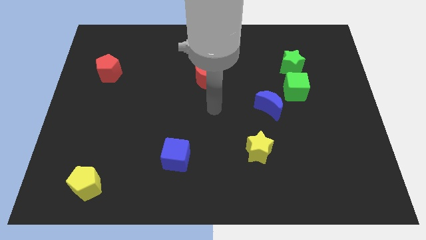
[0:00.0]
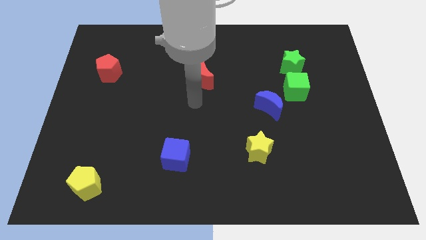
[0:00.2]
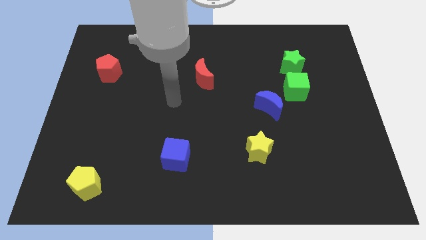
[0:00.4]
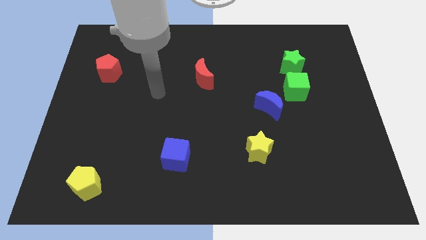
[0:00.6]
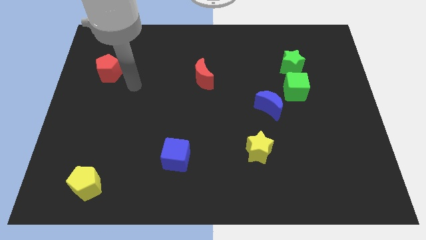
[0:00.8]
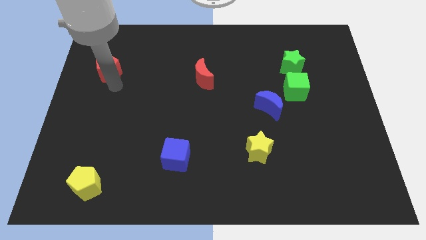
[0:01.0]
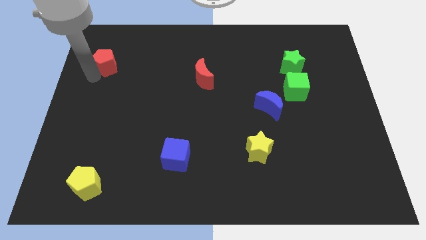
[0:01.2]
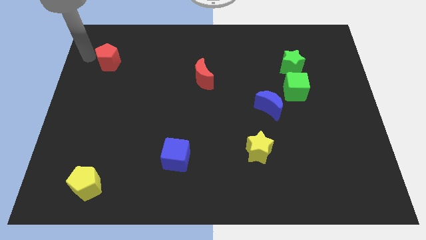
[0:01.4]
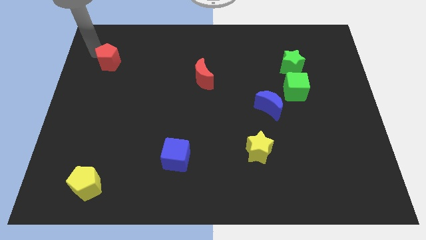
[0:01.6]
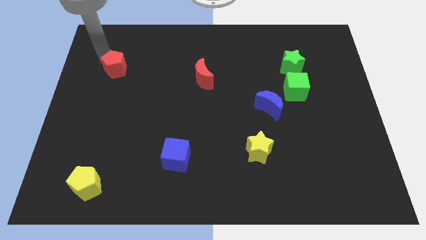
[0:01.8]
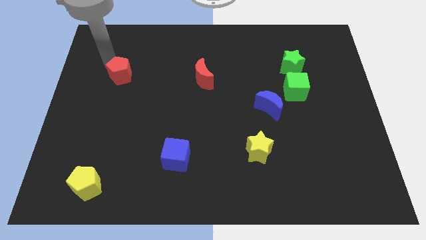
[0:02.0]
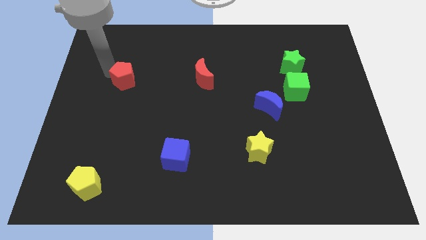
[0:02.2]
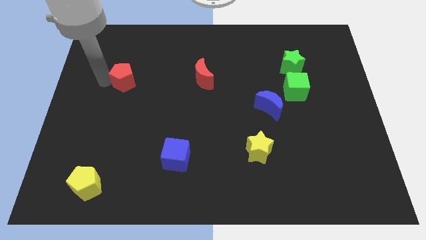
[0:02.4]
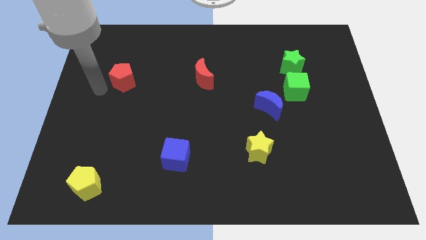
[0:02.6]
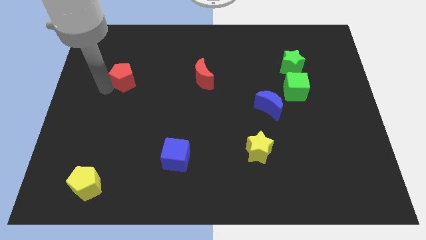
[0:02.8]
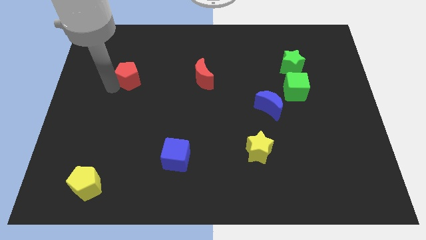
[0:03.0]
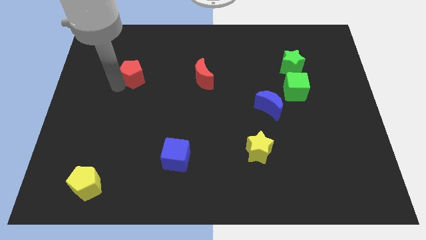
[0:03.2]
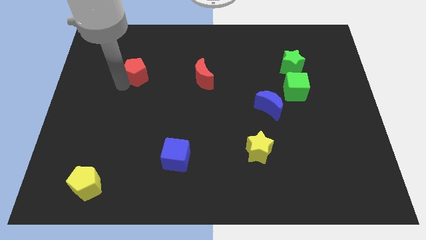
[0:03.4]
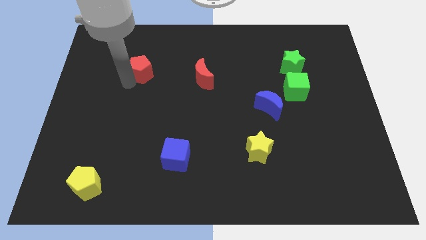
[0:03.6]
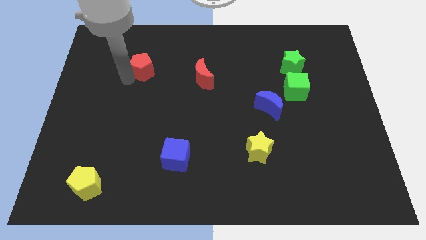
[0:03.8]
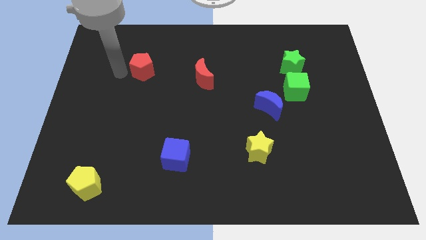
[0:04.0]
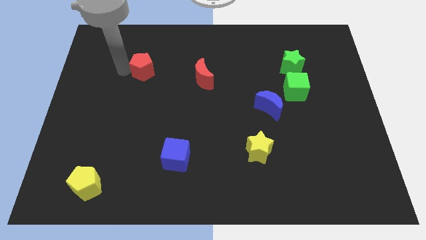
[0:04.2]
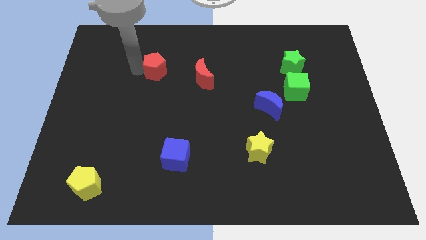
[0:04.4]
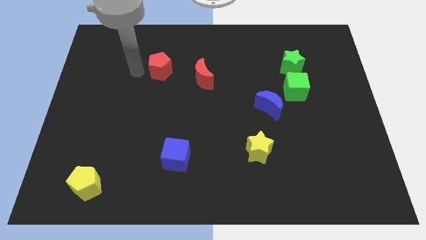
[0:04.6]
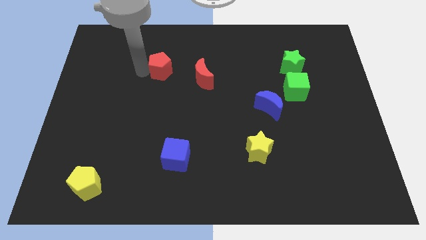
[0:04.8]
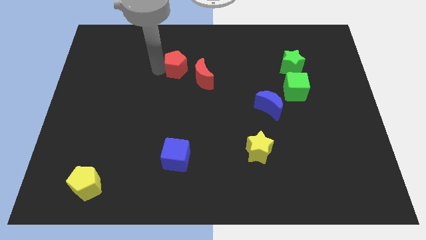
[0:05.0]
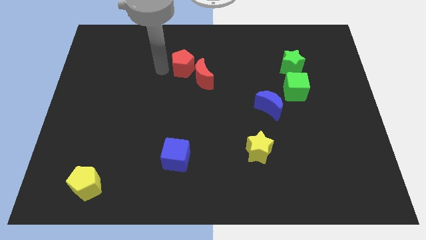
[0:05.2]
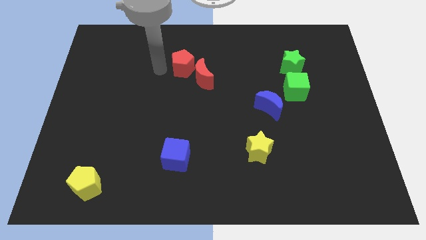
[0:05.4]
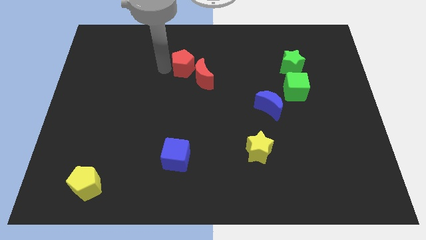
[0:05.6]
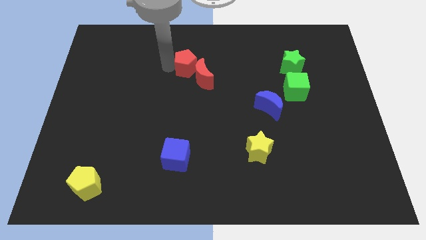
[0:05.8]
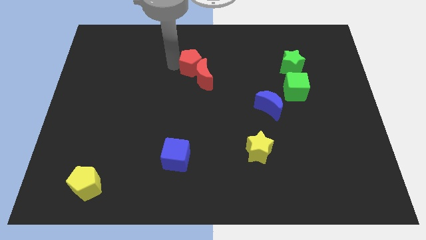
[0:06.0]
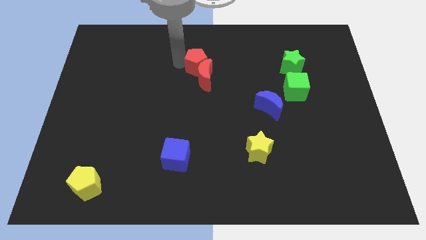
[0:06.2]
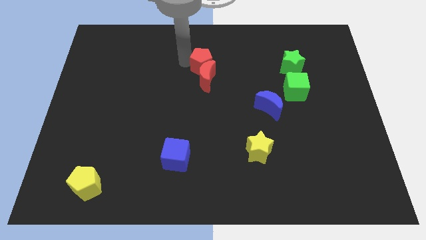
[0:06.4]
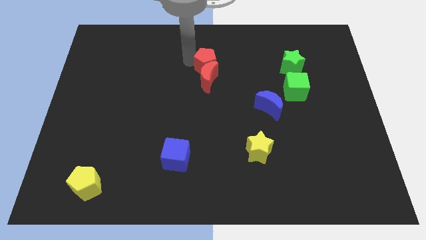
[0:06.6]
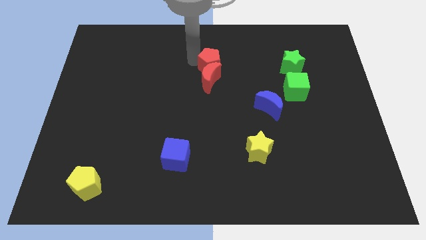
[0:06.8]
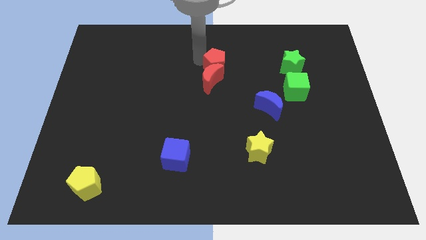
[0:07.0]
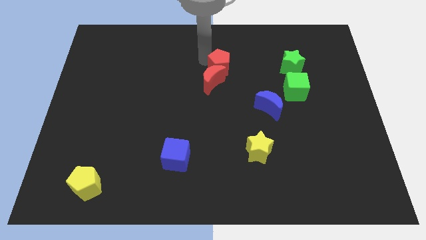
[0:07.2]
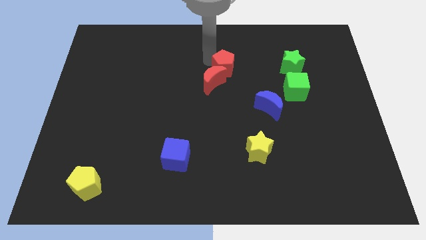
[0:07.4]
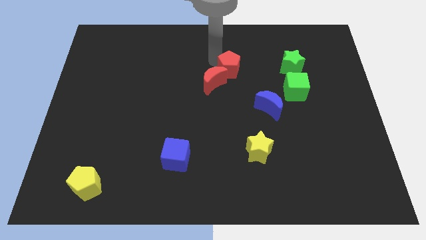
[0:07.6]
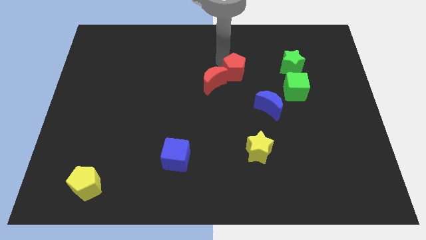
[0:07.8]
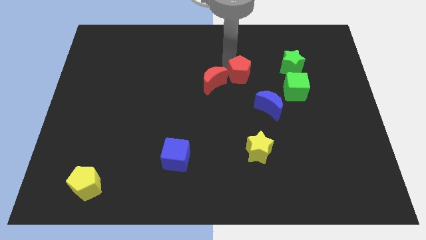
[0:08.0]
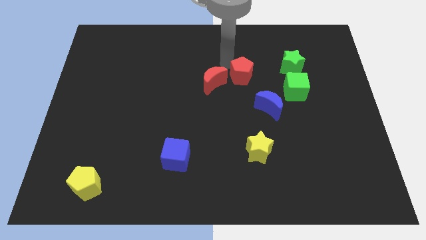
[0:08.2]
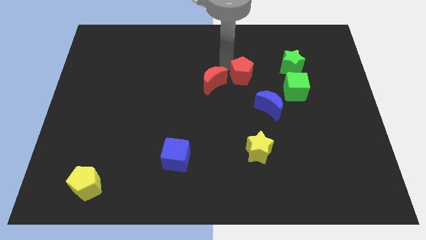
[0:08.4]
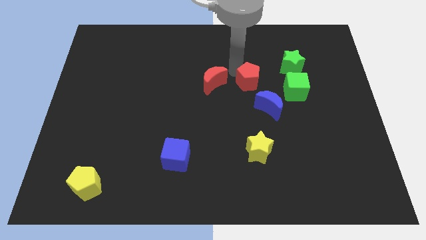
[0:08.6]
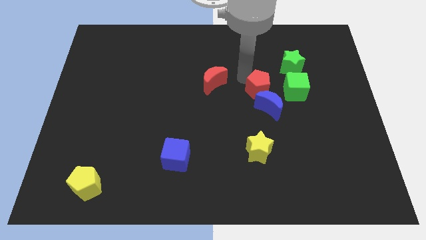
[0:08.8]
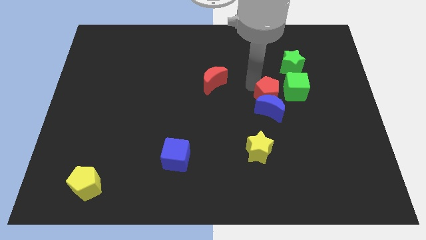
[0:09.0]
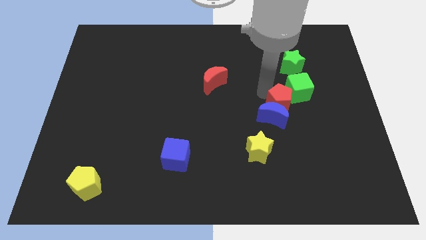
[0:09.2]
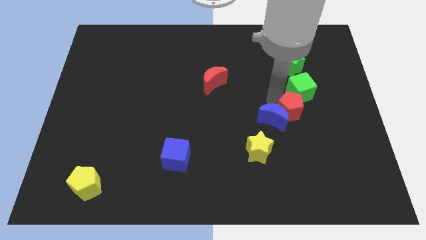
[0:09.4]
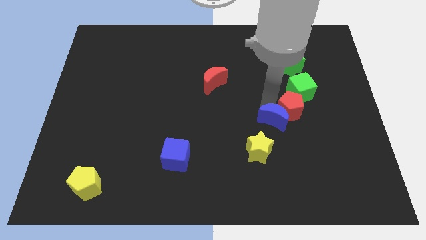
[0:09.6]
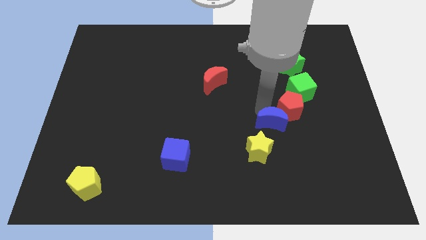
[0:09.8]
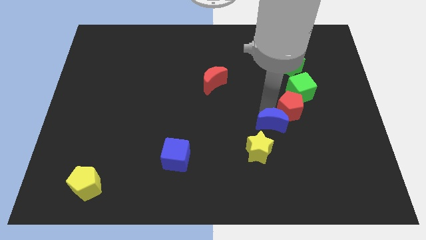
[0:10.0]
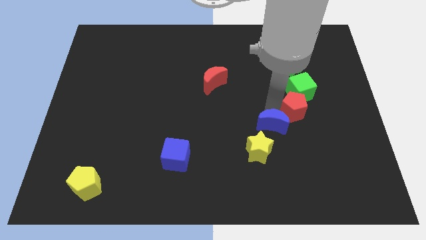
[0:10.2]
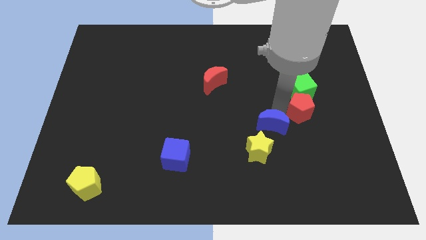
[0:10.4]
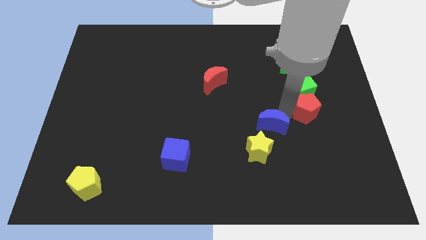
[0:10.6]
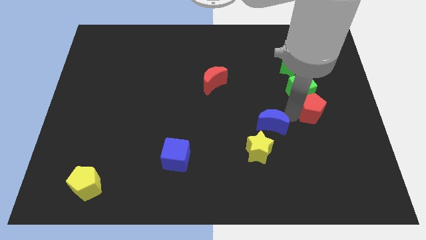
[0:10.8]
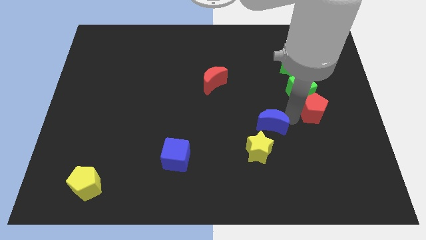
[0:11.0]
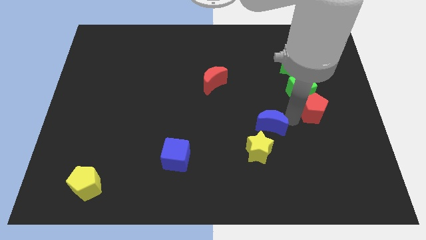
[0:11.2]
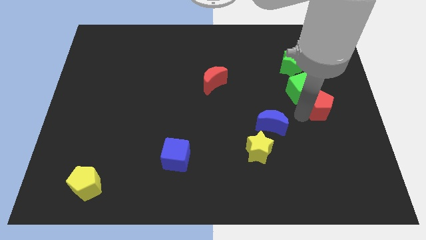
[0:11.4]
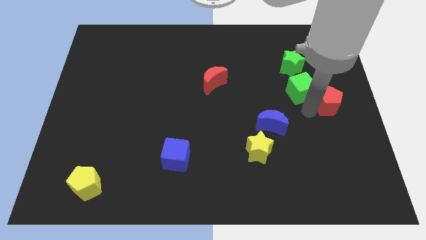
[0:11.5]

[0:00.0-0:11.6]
move the red pentagon to the right side of the board

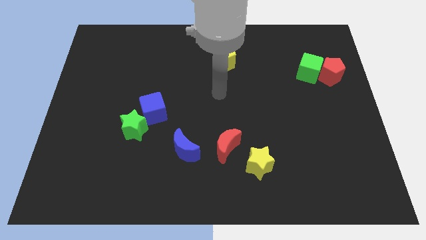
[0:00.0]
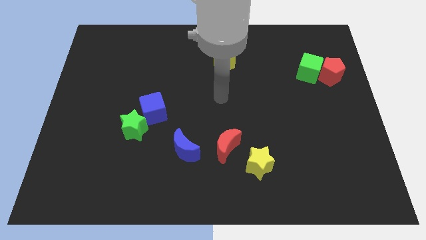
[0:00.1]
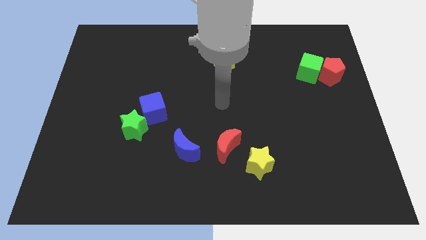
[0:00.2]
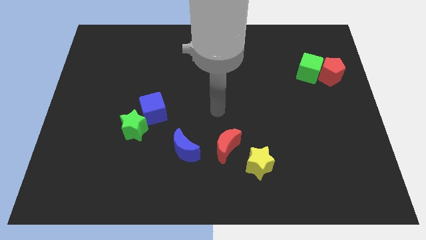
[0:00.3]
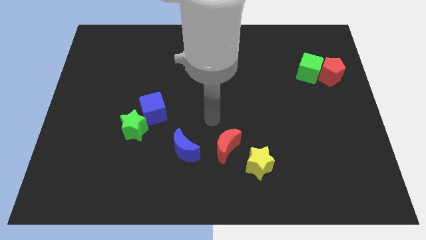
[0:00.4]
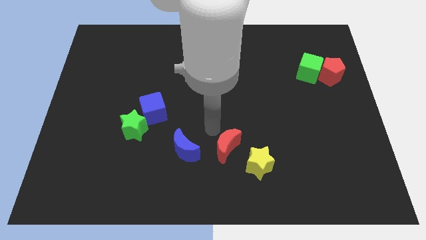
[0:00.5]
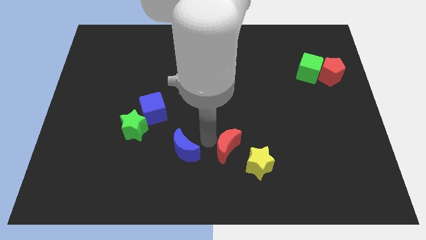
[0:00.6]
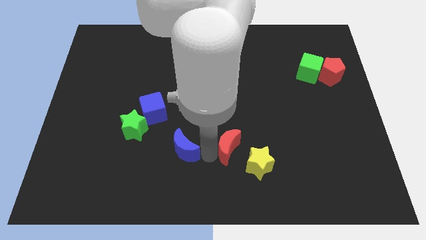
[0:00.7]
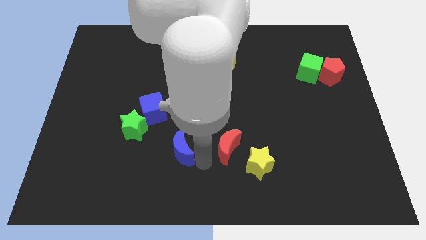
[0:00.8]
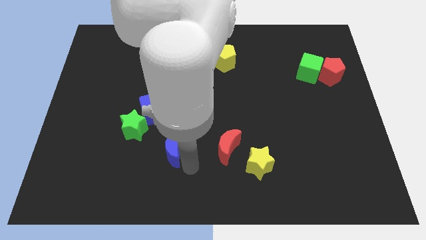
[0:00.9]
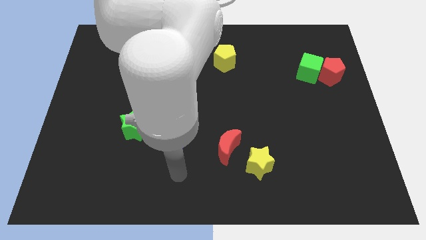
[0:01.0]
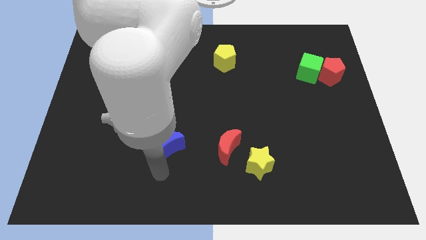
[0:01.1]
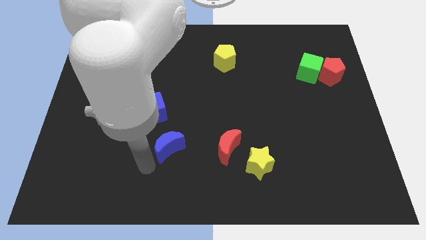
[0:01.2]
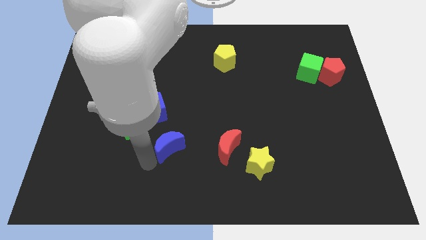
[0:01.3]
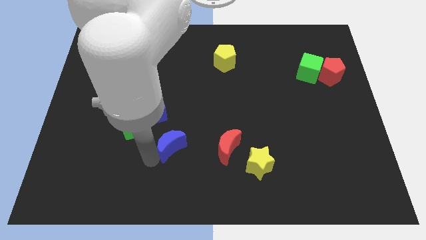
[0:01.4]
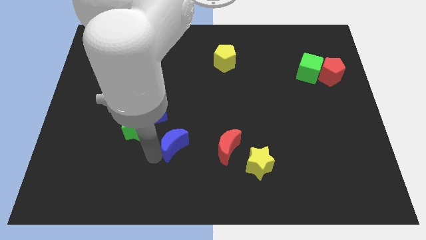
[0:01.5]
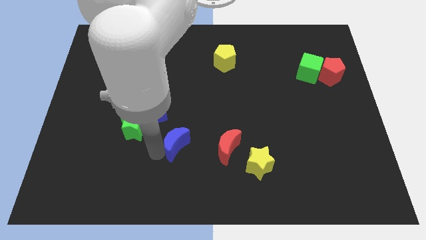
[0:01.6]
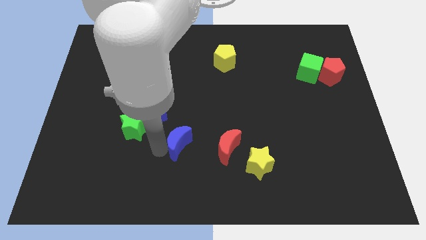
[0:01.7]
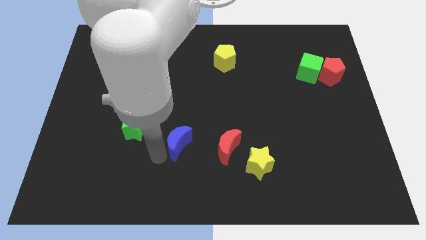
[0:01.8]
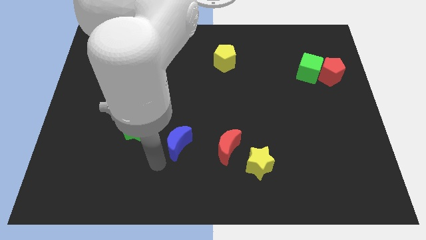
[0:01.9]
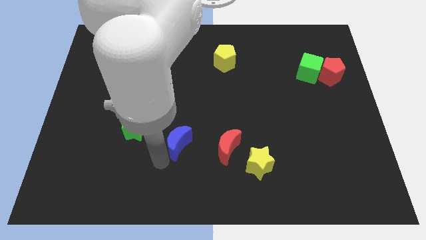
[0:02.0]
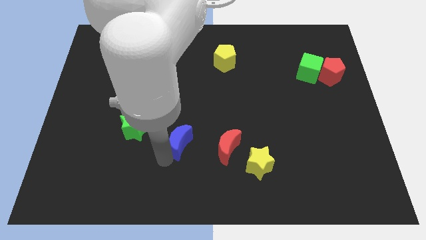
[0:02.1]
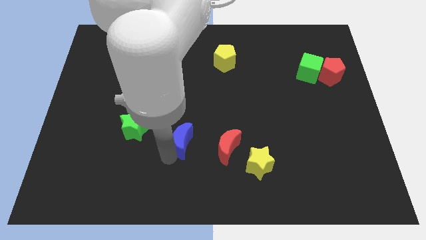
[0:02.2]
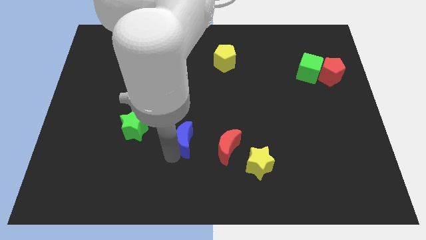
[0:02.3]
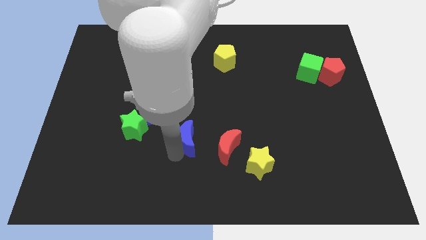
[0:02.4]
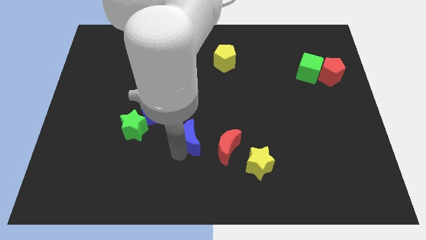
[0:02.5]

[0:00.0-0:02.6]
move the blue moon to the middle of the board
